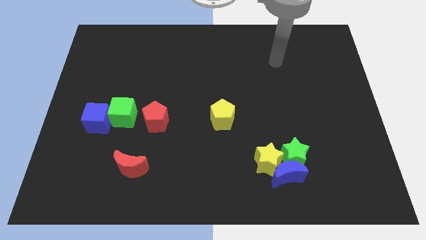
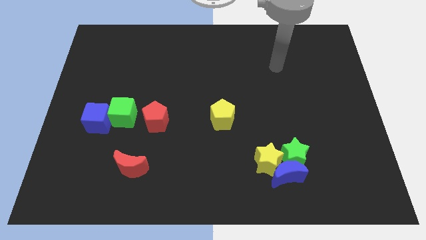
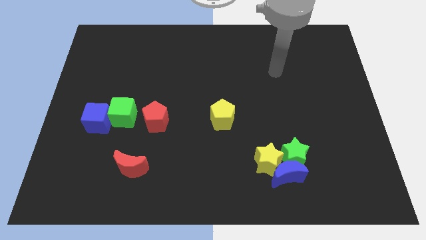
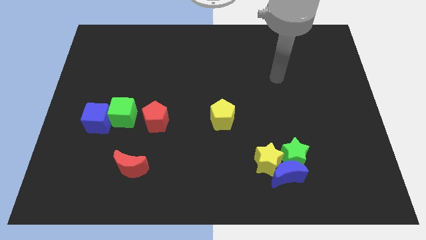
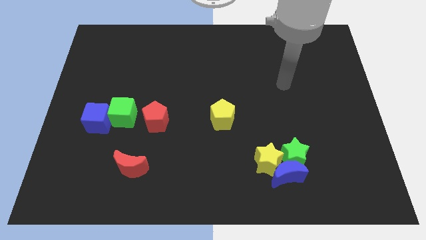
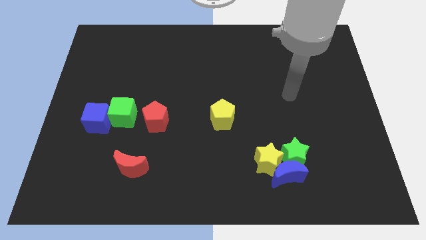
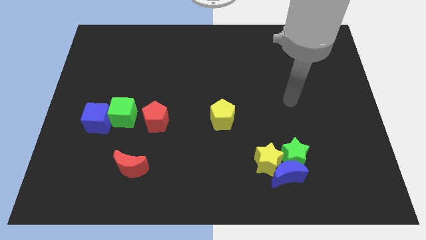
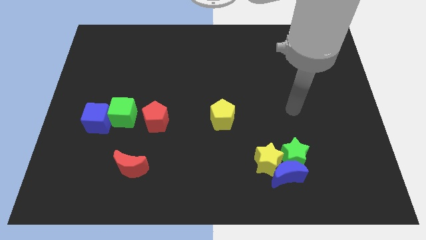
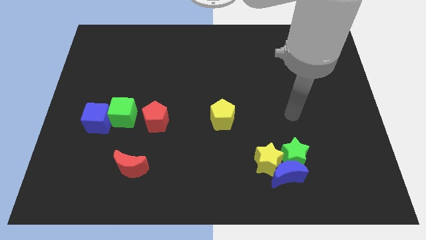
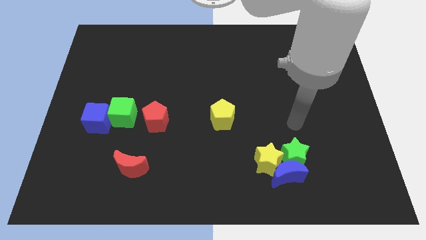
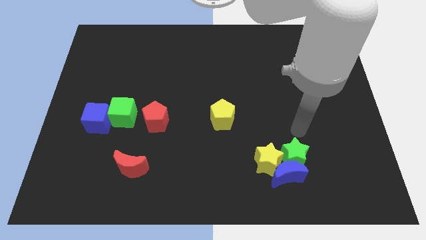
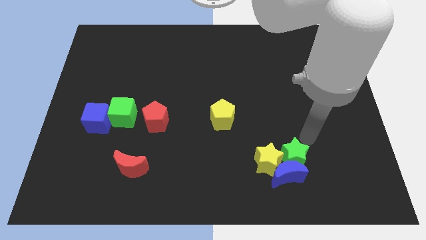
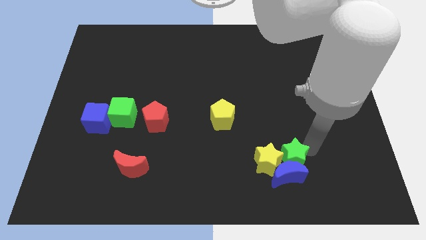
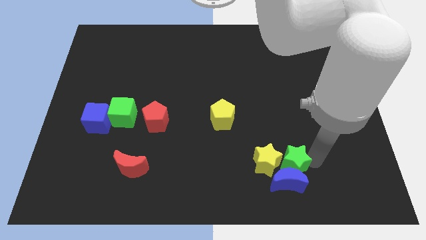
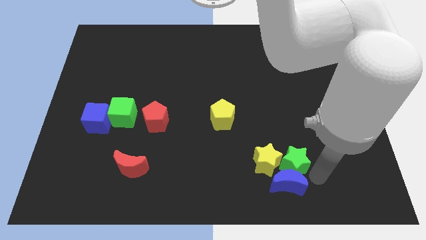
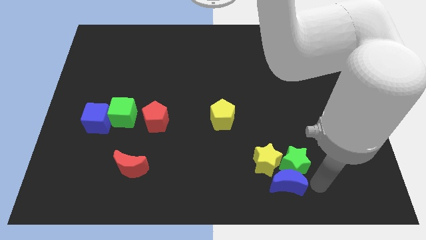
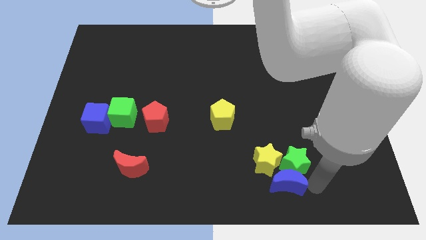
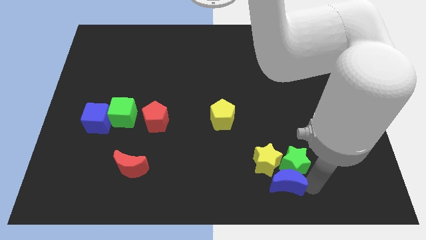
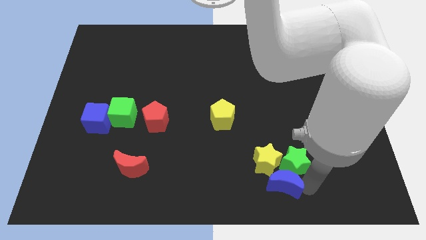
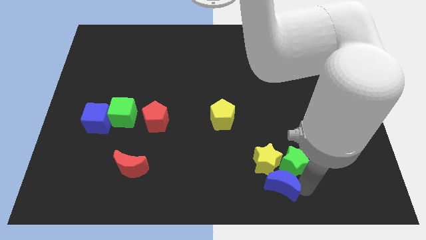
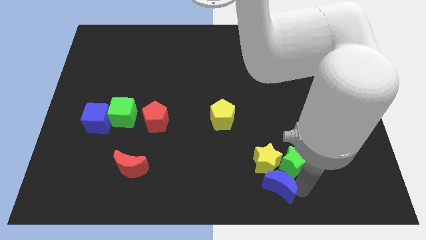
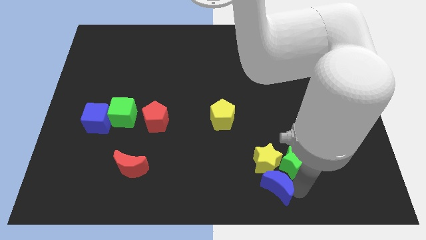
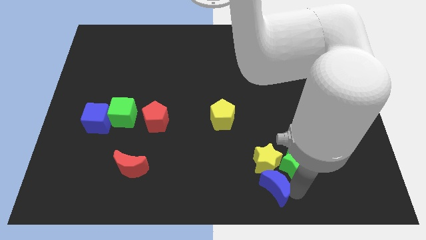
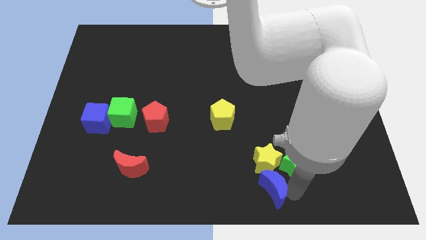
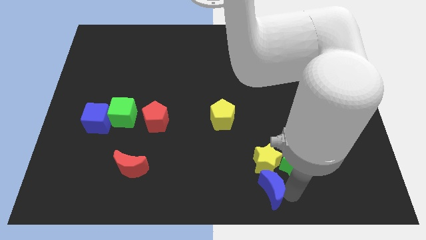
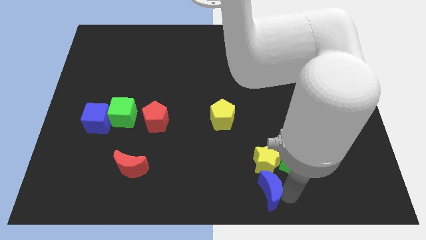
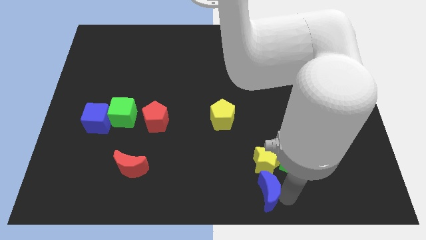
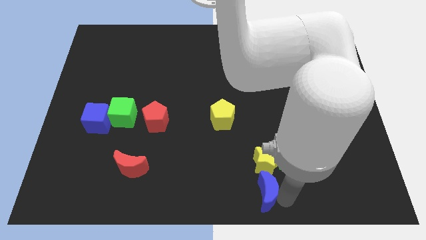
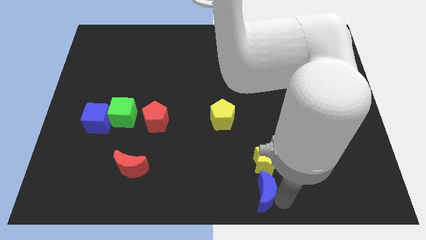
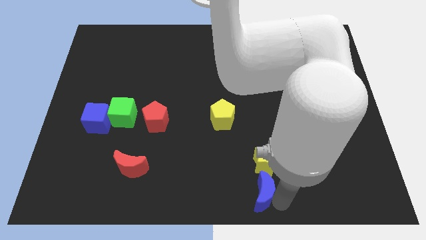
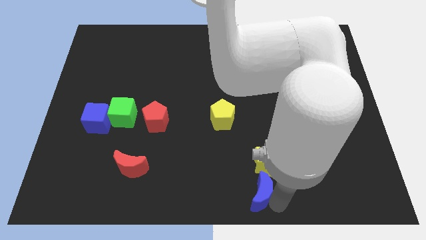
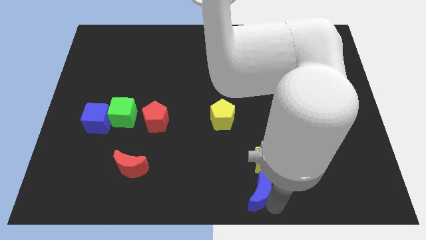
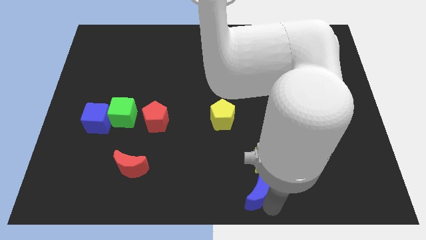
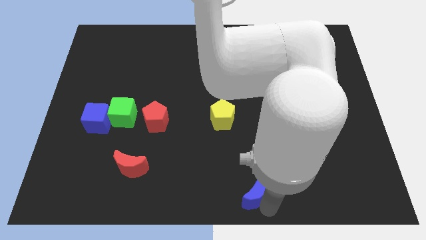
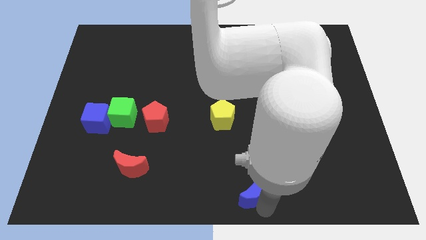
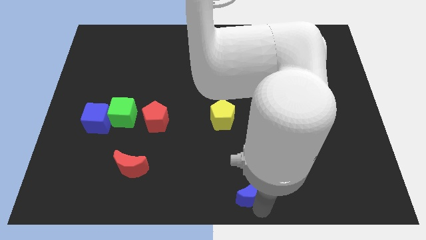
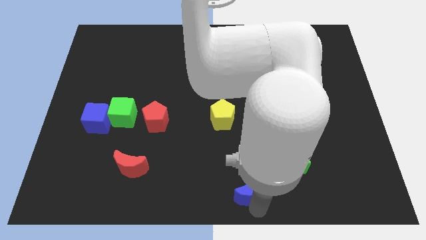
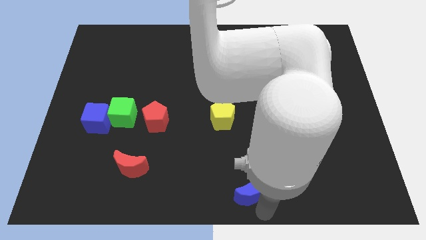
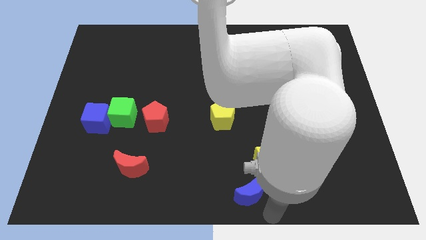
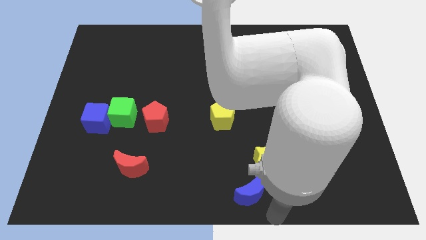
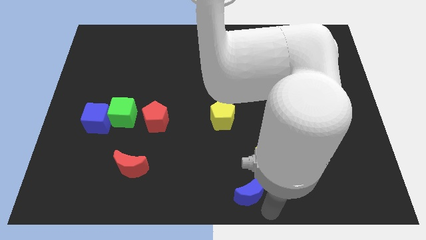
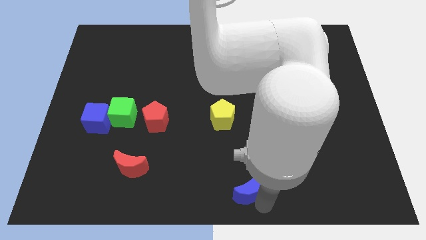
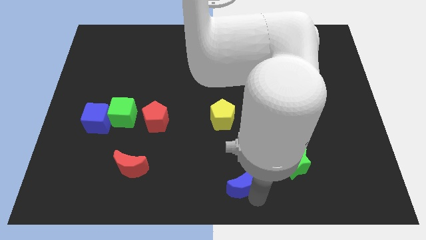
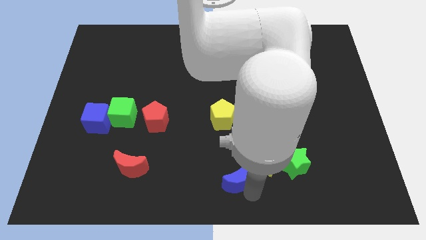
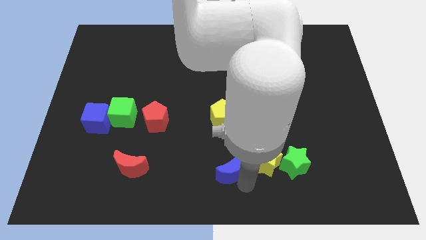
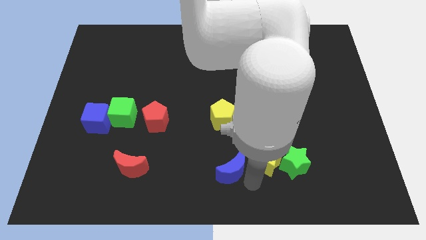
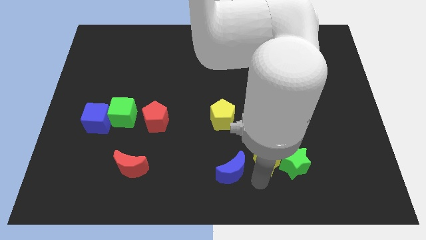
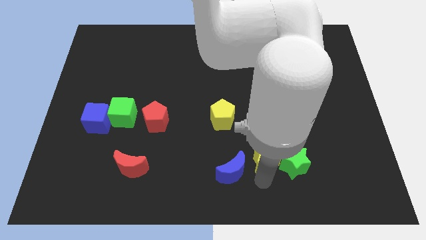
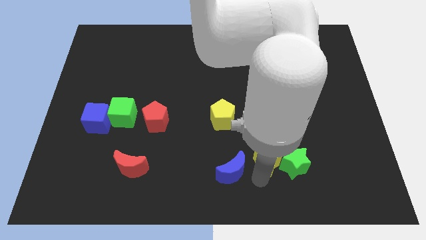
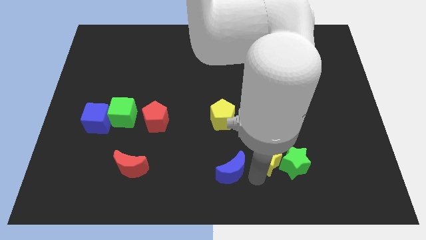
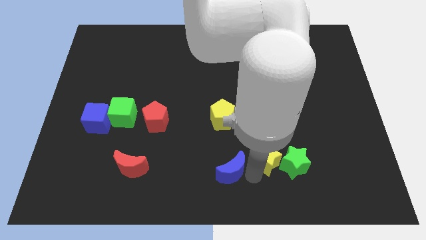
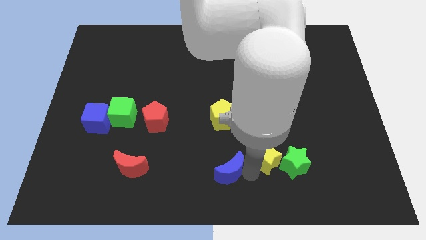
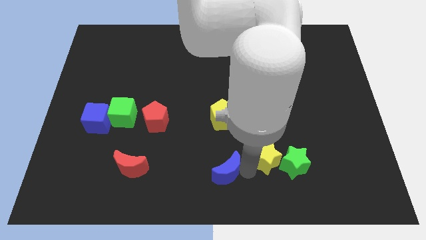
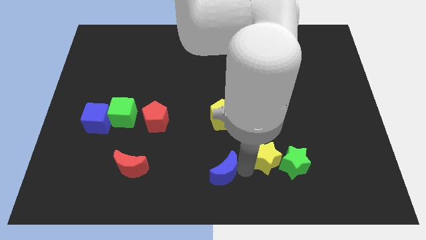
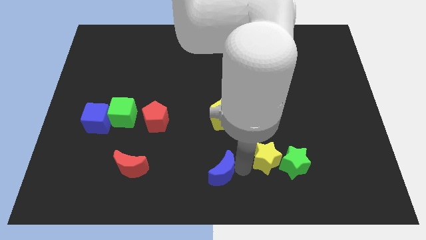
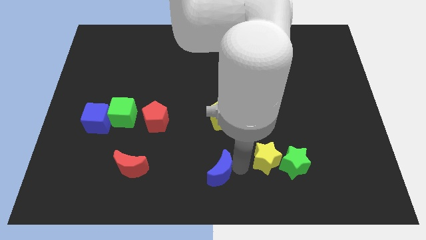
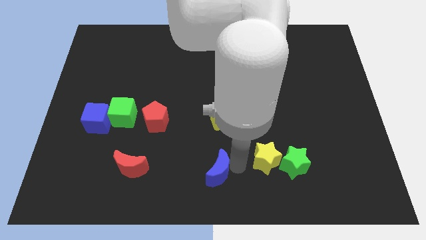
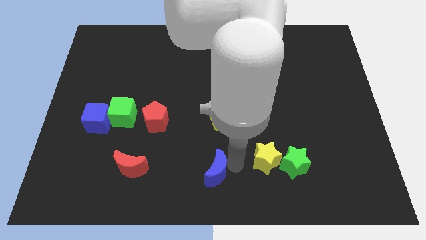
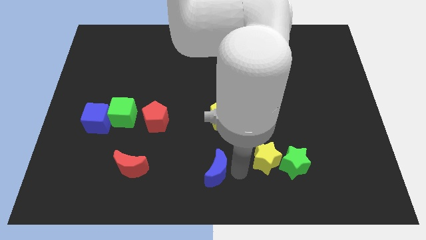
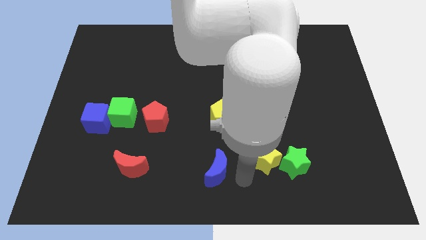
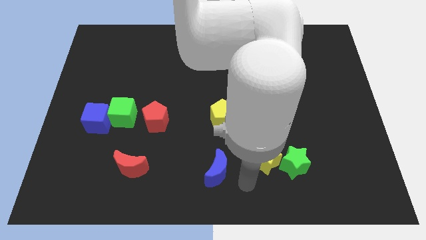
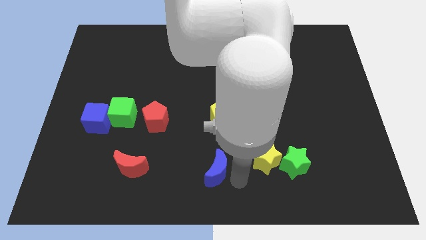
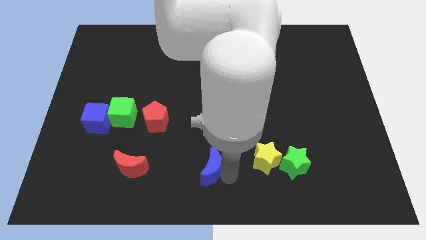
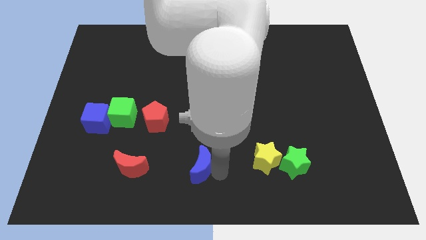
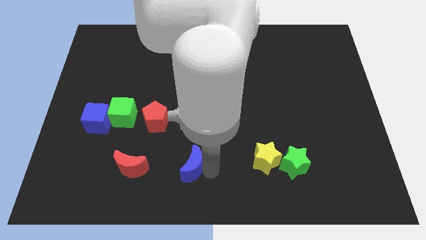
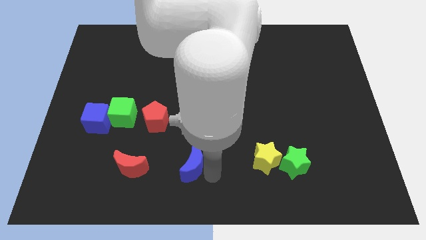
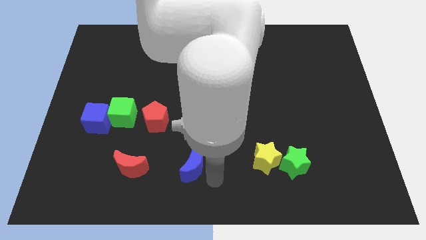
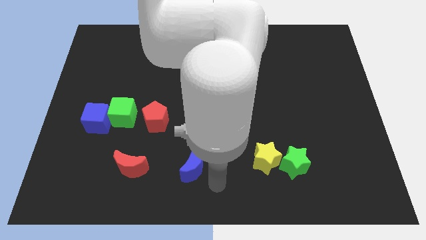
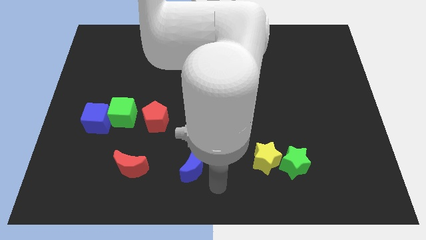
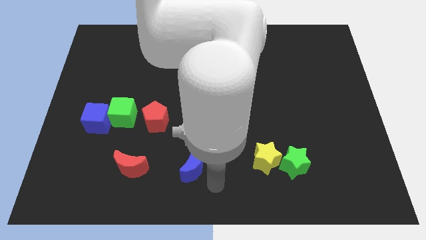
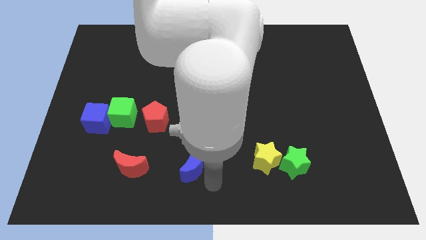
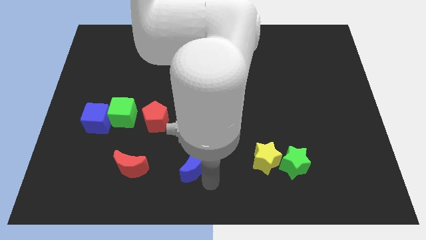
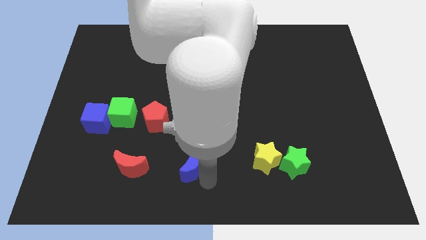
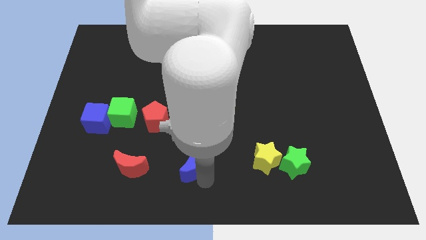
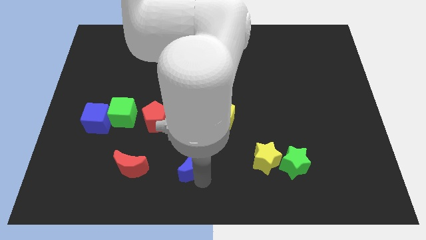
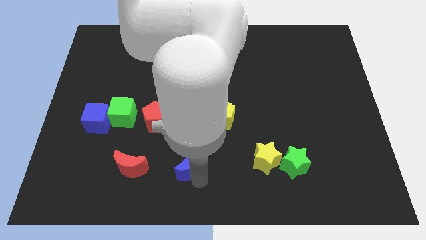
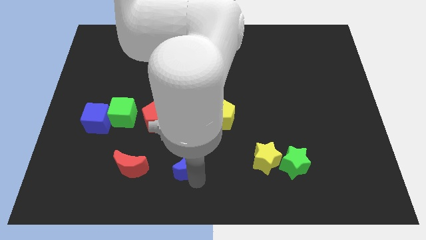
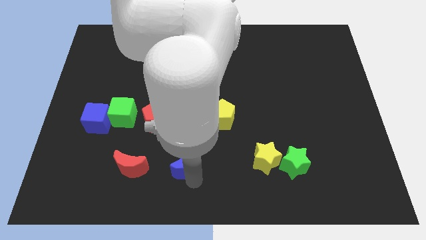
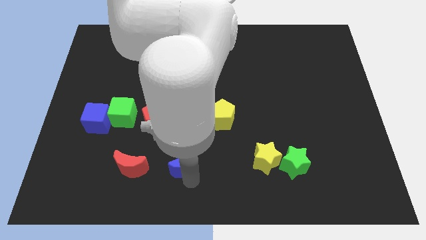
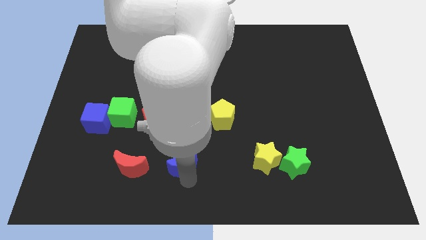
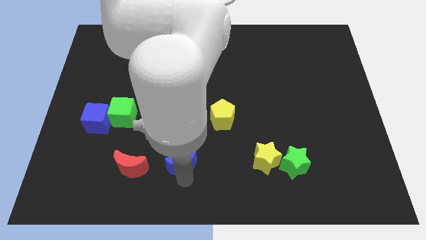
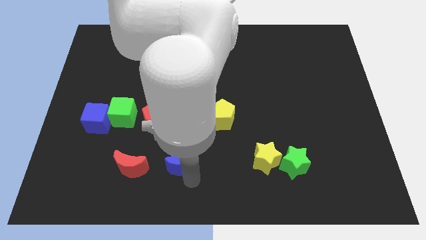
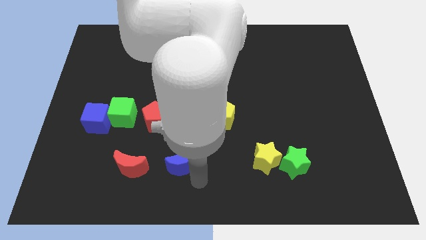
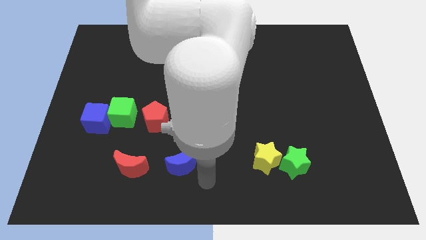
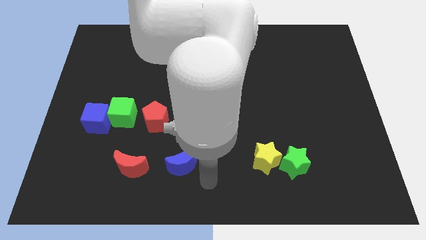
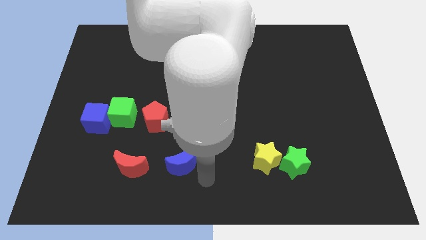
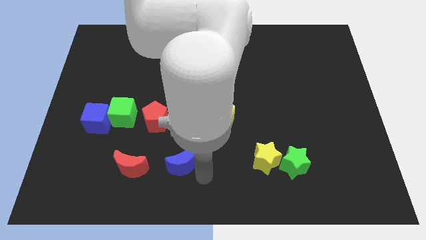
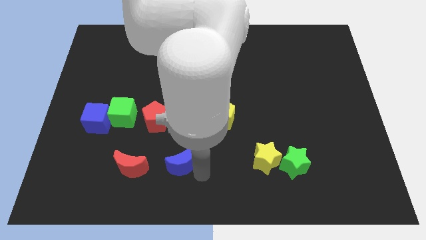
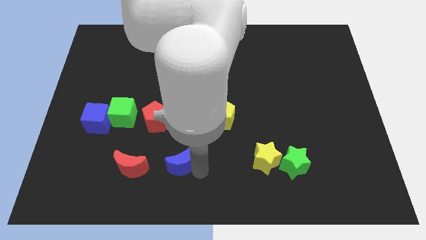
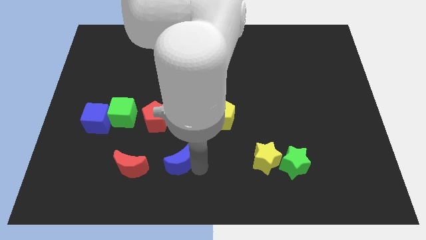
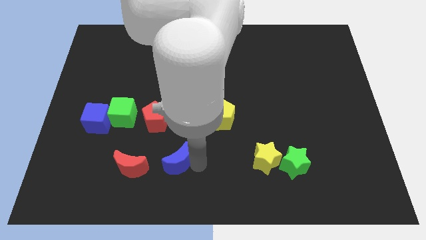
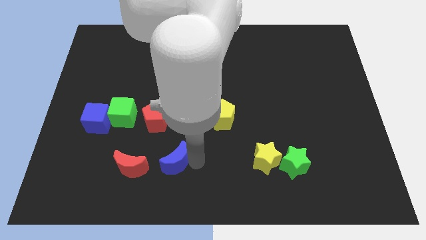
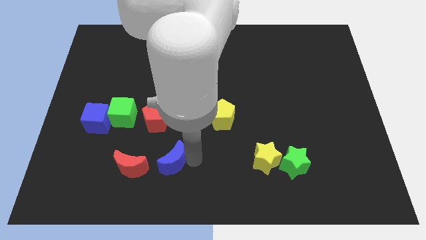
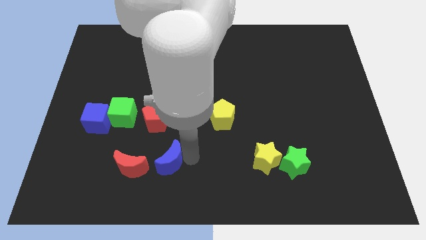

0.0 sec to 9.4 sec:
move the blue moon to the top right of the red moon
